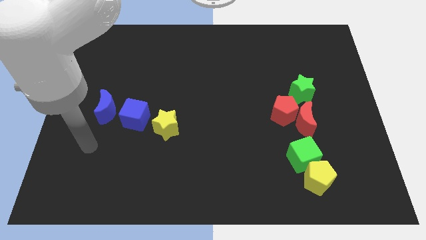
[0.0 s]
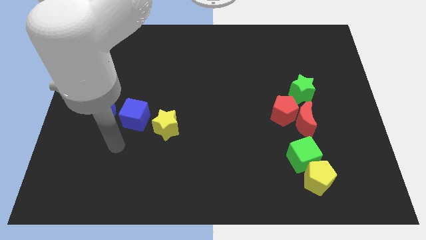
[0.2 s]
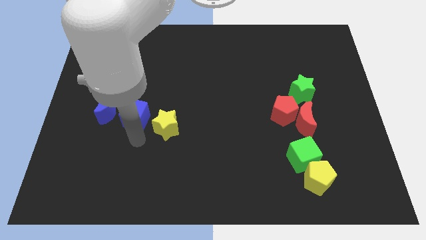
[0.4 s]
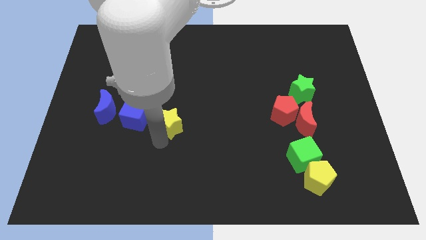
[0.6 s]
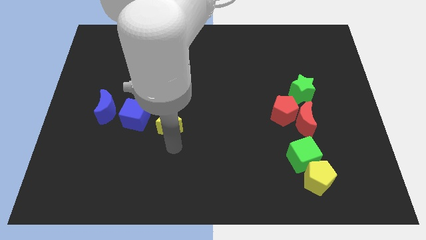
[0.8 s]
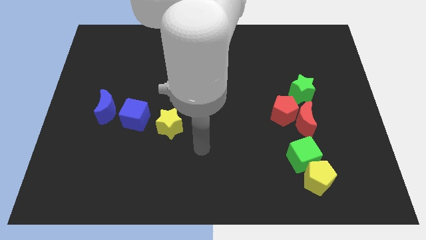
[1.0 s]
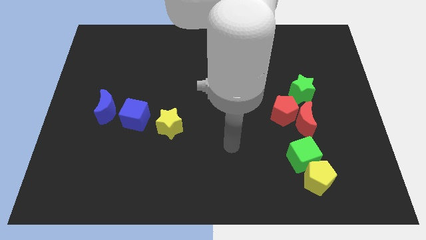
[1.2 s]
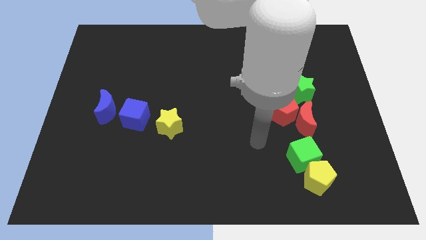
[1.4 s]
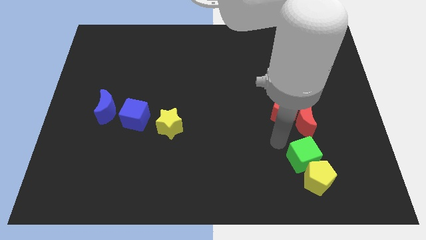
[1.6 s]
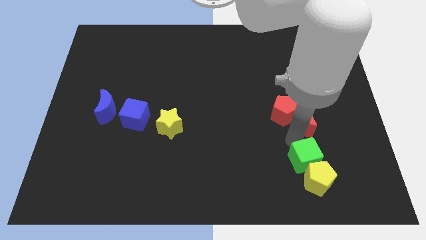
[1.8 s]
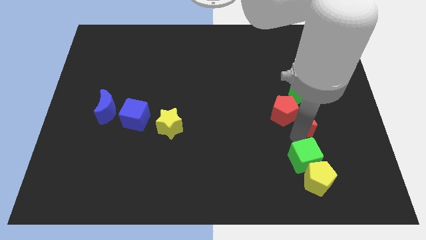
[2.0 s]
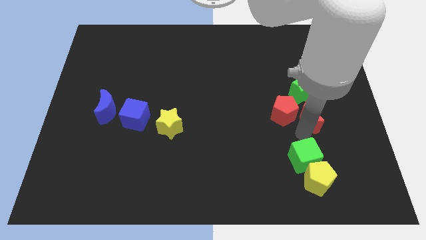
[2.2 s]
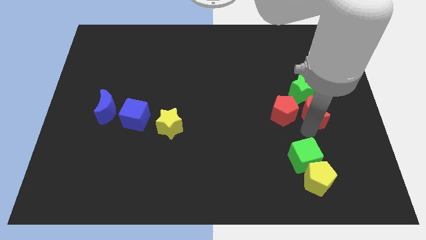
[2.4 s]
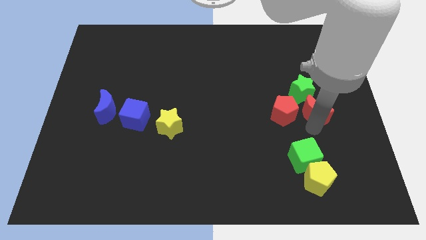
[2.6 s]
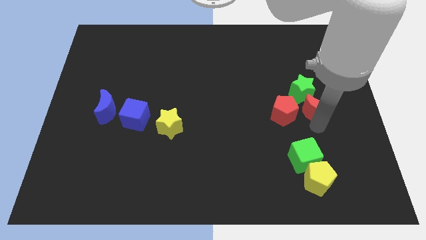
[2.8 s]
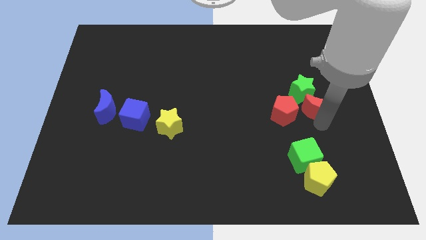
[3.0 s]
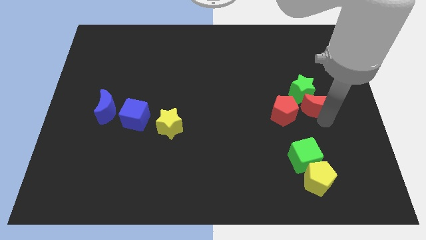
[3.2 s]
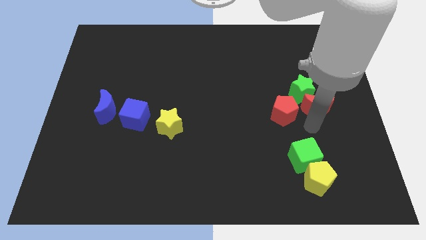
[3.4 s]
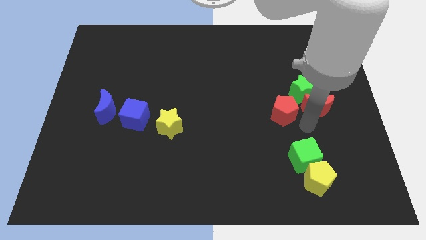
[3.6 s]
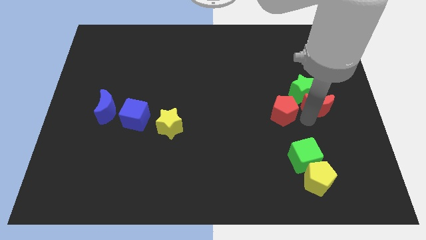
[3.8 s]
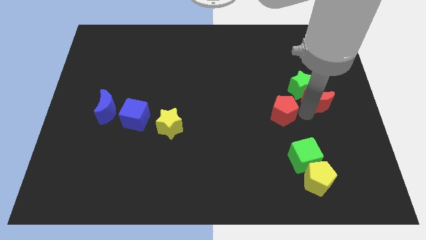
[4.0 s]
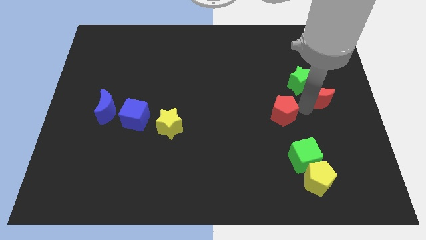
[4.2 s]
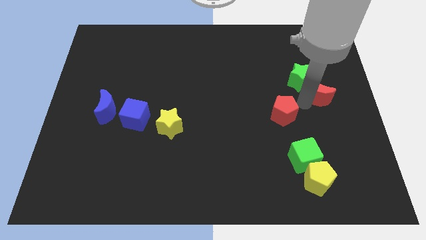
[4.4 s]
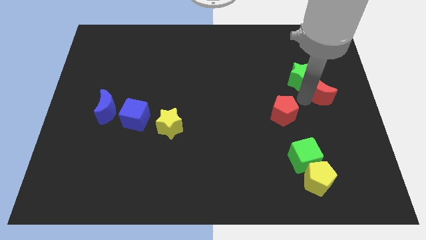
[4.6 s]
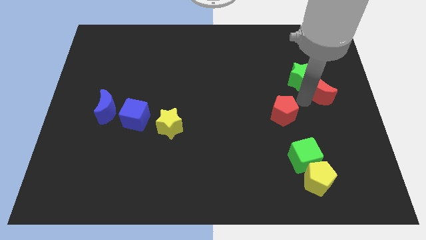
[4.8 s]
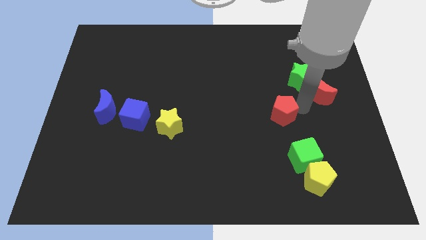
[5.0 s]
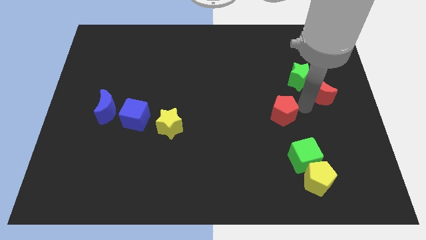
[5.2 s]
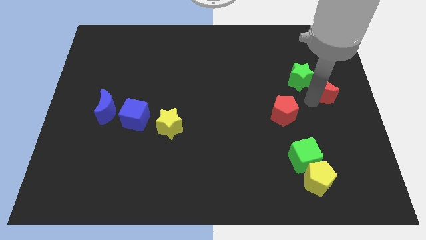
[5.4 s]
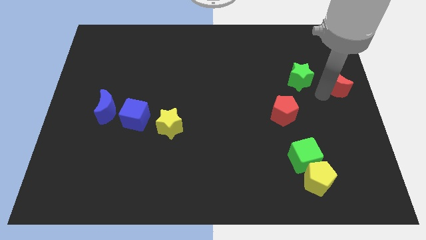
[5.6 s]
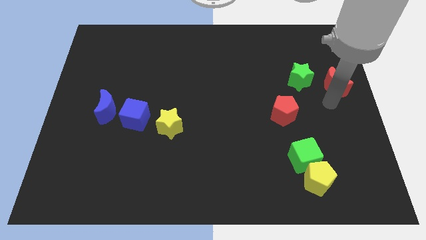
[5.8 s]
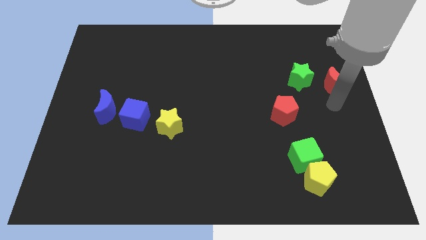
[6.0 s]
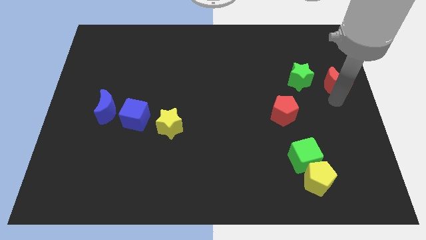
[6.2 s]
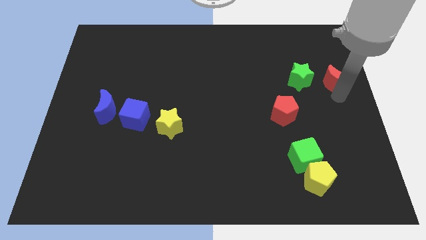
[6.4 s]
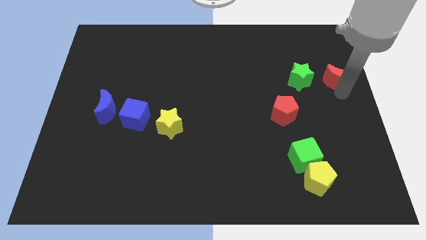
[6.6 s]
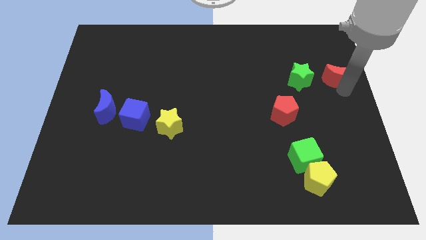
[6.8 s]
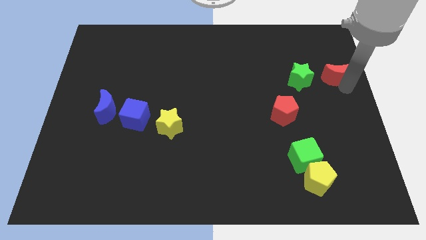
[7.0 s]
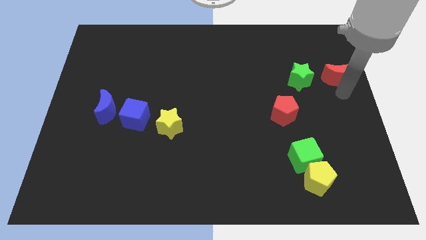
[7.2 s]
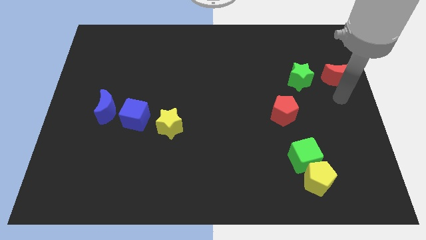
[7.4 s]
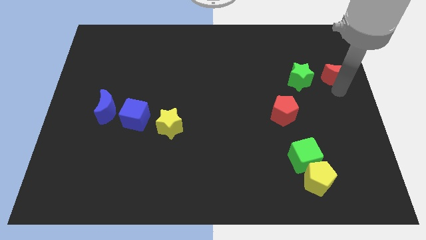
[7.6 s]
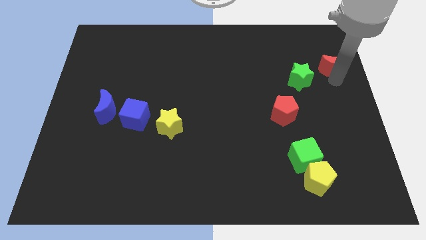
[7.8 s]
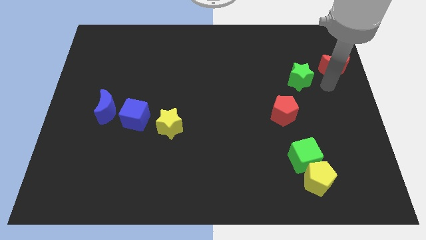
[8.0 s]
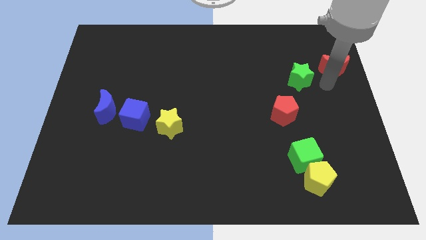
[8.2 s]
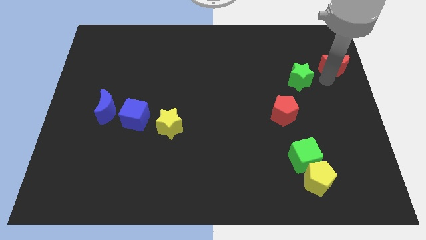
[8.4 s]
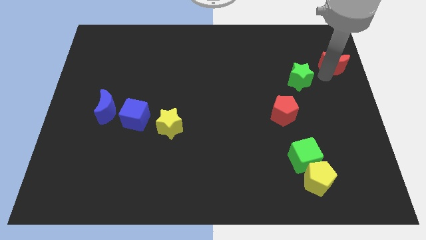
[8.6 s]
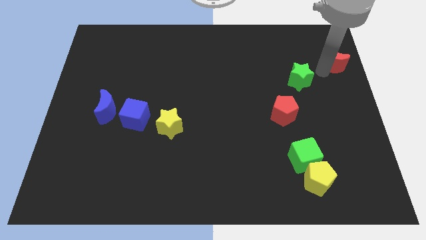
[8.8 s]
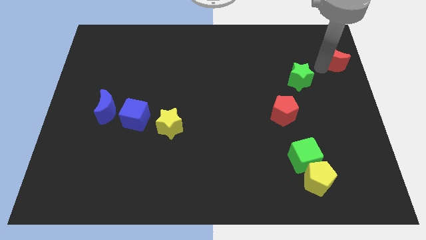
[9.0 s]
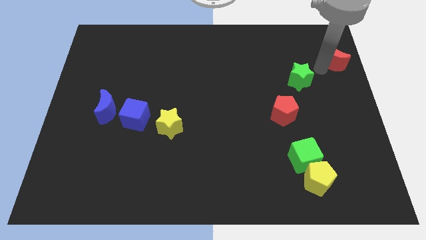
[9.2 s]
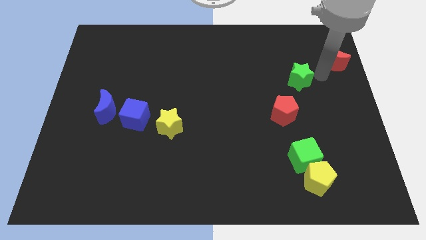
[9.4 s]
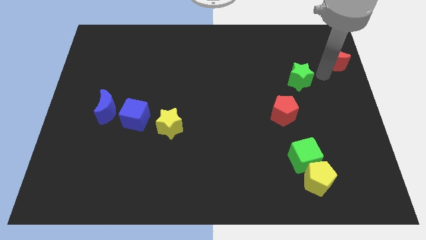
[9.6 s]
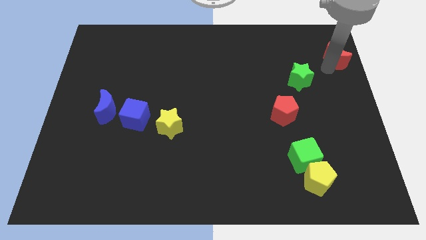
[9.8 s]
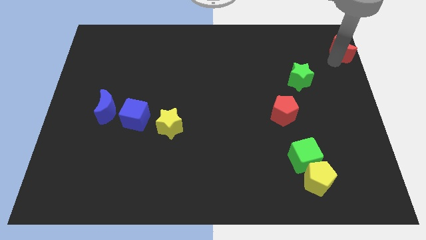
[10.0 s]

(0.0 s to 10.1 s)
put the red moon to the top right corner

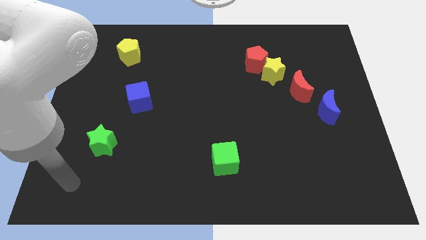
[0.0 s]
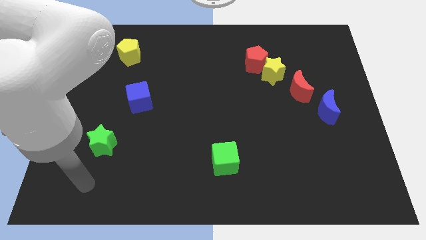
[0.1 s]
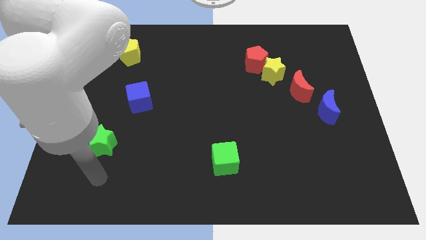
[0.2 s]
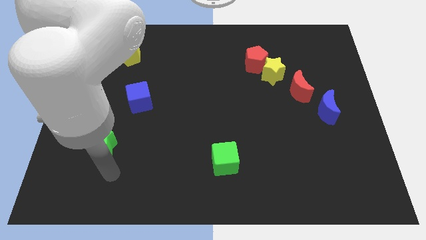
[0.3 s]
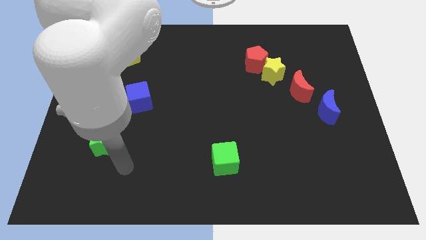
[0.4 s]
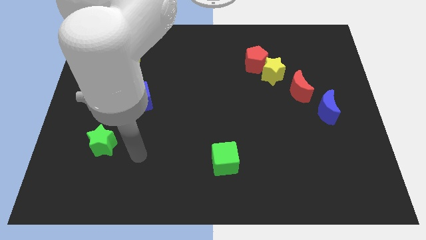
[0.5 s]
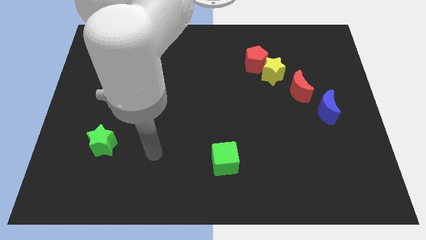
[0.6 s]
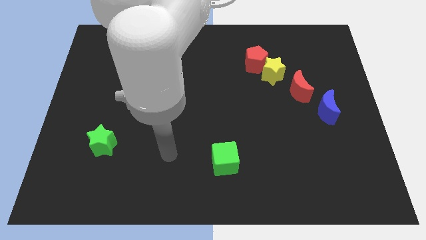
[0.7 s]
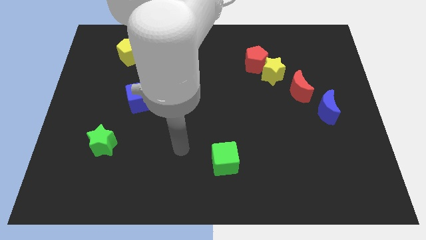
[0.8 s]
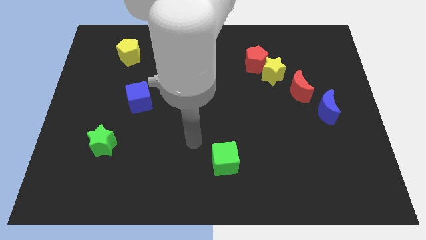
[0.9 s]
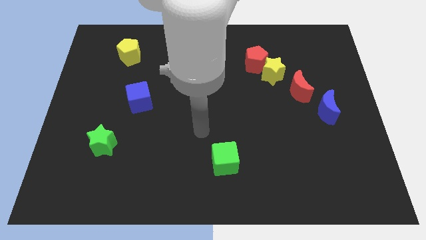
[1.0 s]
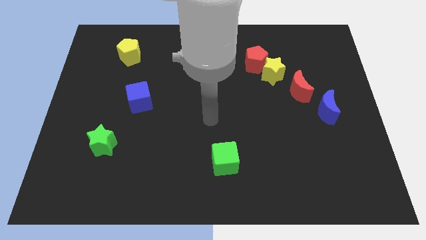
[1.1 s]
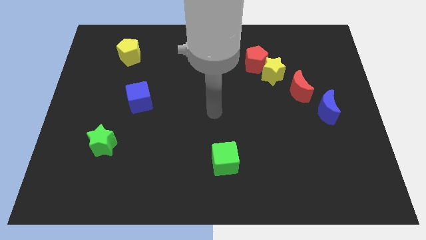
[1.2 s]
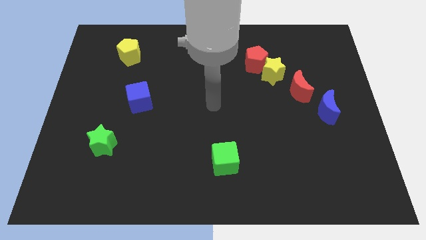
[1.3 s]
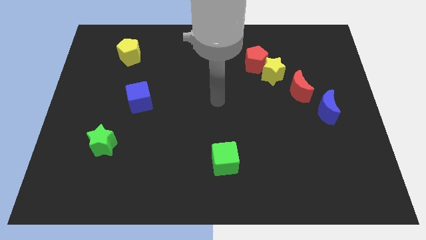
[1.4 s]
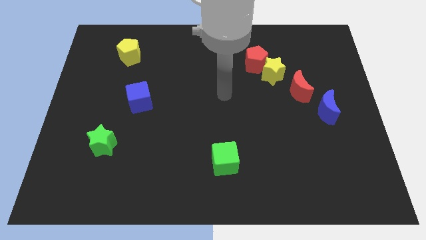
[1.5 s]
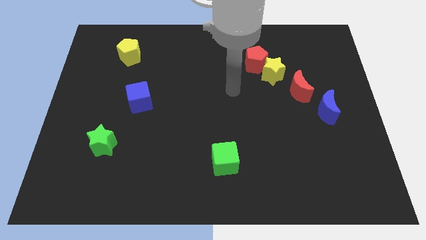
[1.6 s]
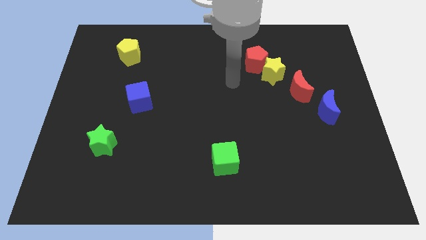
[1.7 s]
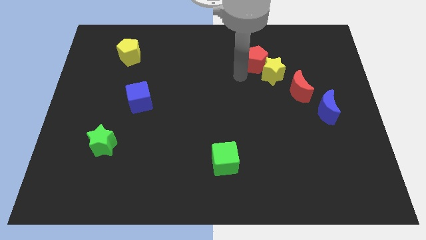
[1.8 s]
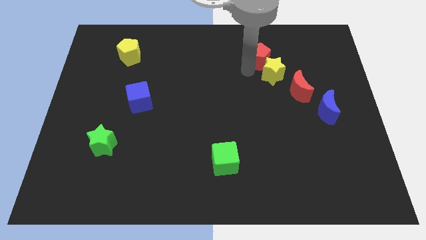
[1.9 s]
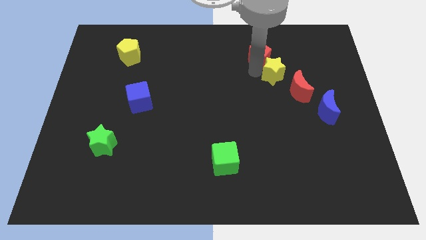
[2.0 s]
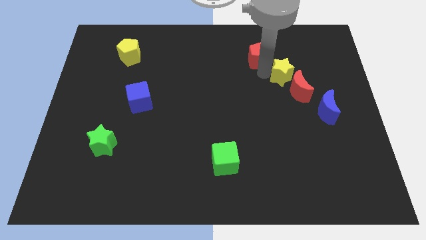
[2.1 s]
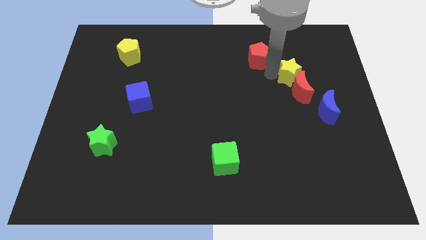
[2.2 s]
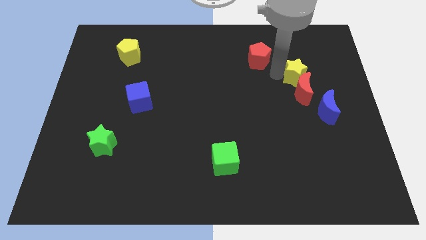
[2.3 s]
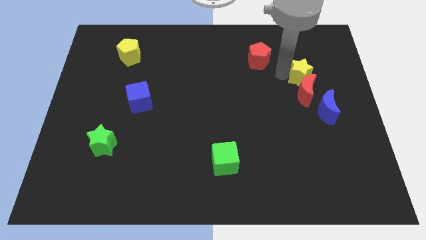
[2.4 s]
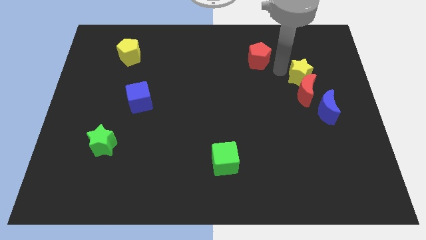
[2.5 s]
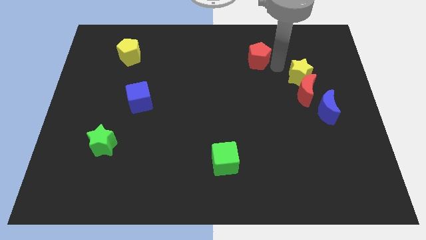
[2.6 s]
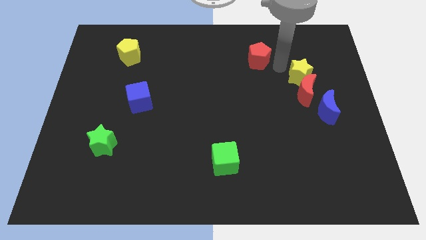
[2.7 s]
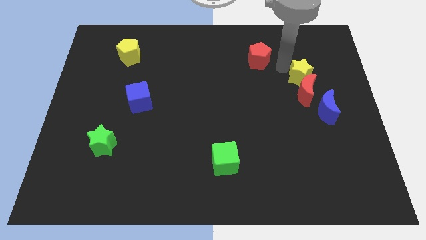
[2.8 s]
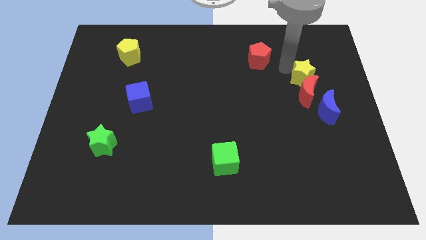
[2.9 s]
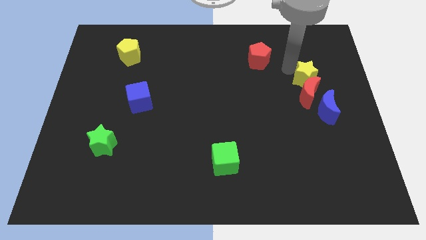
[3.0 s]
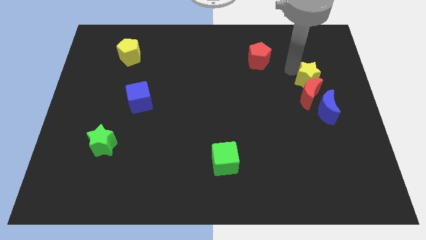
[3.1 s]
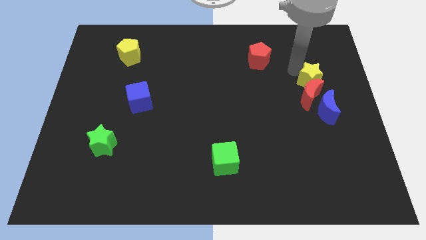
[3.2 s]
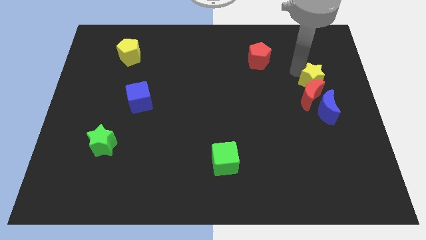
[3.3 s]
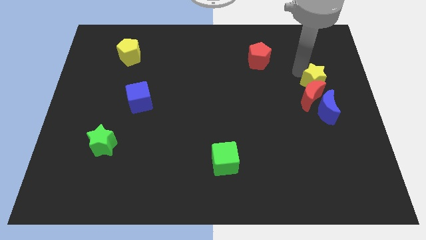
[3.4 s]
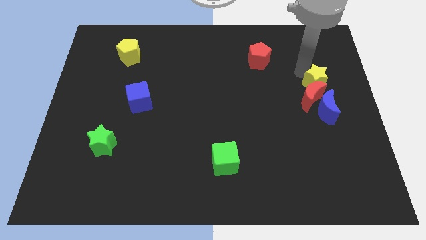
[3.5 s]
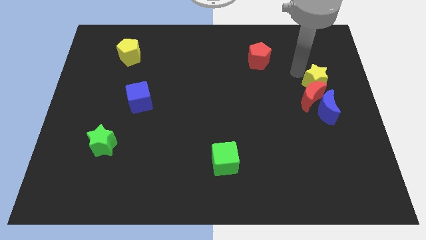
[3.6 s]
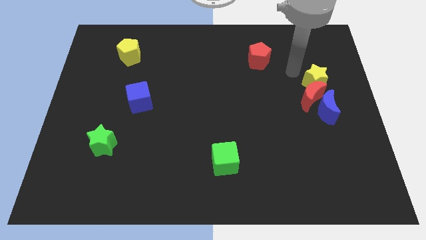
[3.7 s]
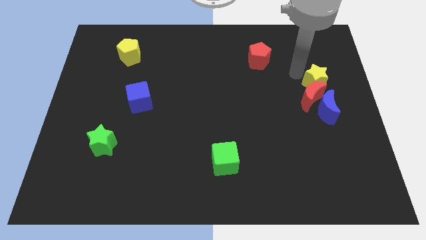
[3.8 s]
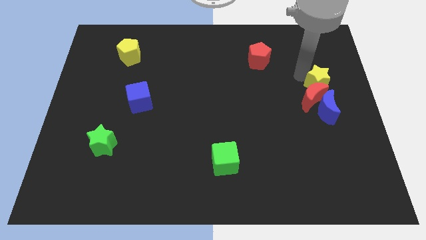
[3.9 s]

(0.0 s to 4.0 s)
put the yellow star to the right side of the board
